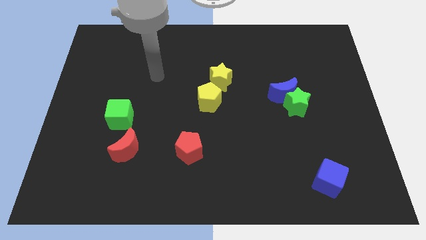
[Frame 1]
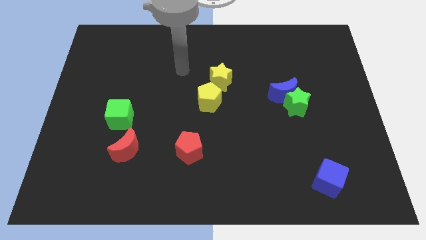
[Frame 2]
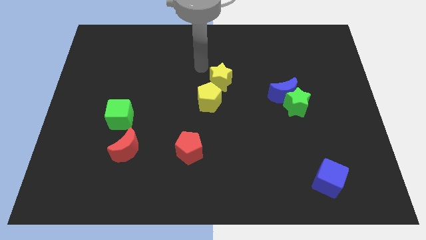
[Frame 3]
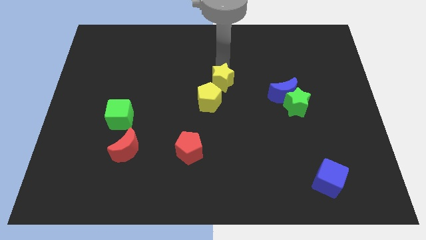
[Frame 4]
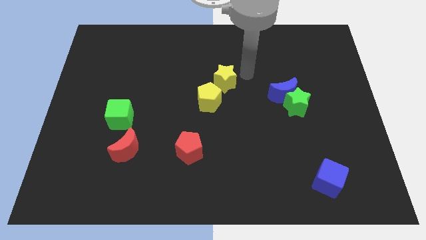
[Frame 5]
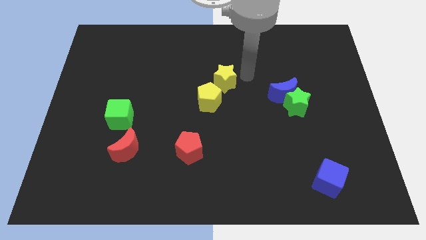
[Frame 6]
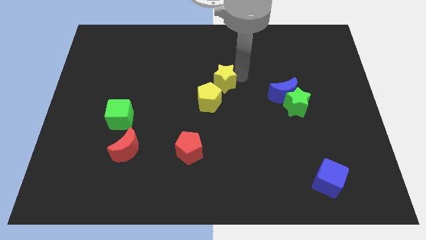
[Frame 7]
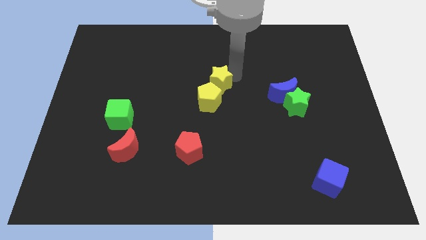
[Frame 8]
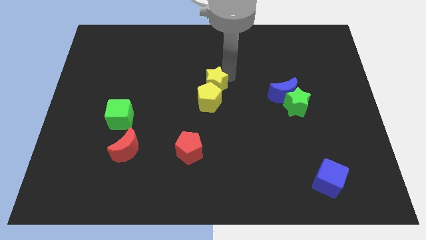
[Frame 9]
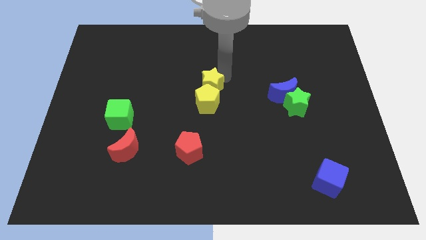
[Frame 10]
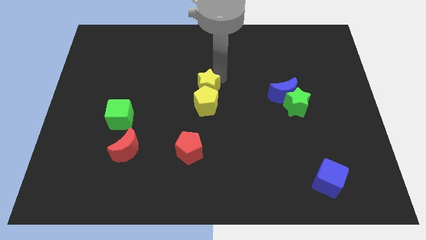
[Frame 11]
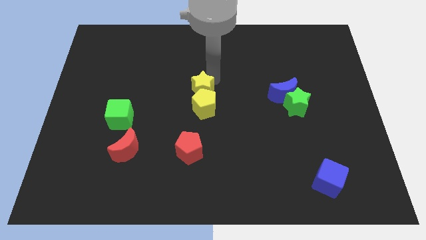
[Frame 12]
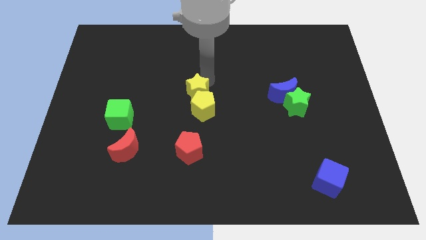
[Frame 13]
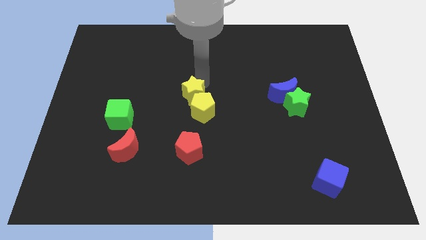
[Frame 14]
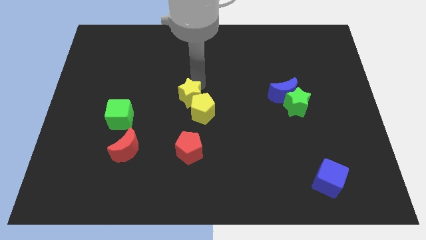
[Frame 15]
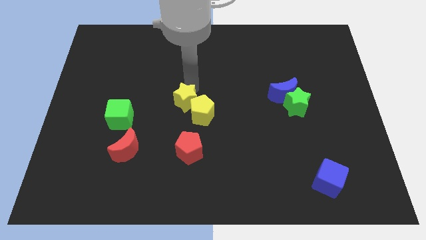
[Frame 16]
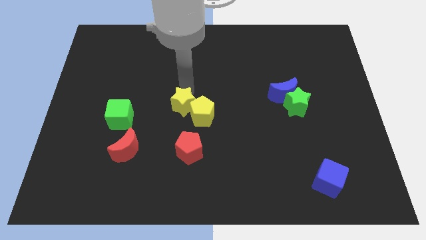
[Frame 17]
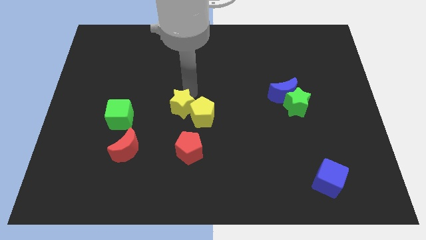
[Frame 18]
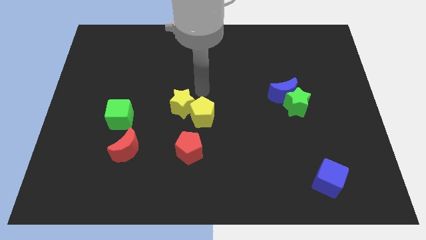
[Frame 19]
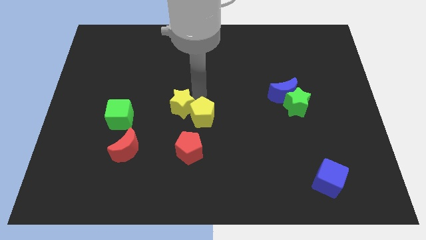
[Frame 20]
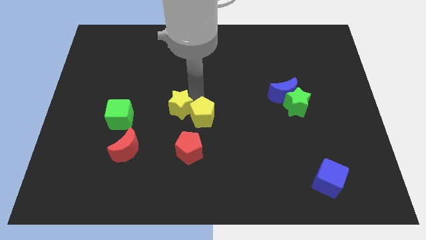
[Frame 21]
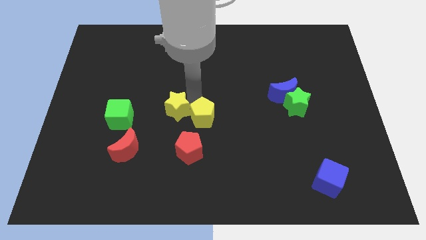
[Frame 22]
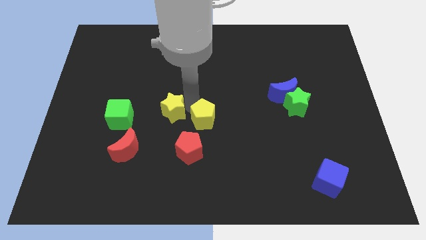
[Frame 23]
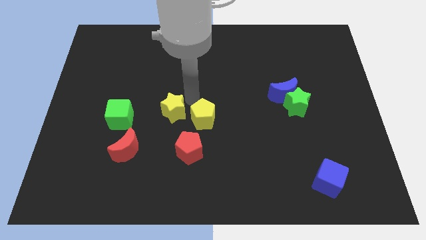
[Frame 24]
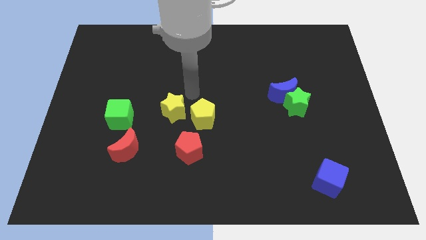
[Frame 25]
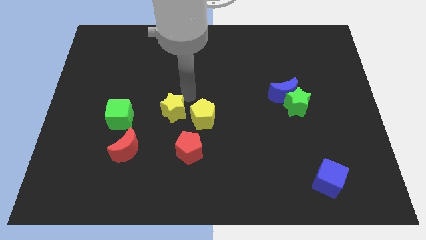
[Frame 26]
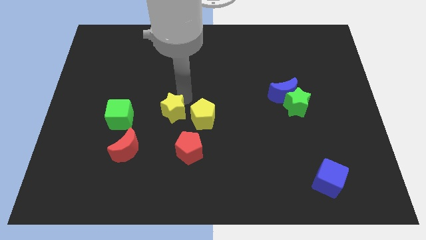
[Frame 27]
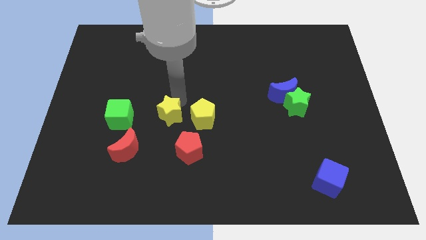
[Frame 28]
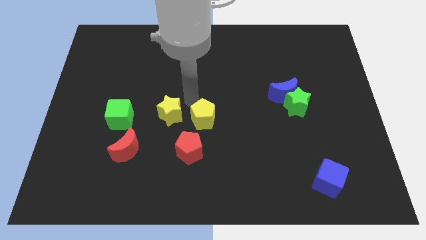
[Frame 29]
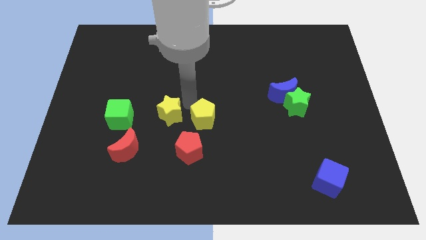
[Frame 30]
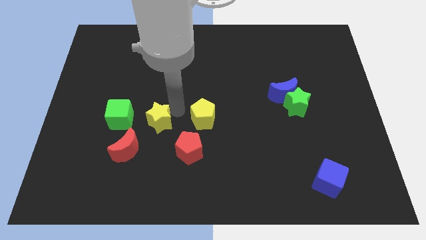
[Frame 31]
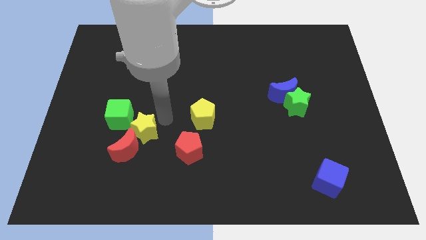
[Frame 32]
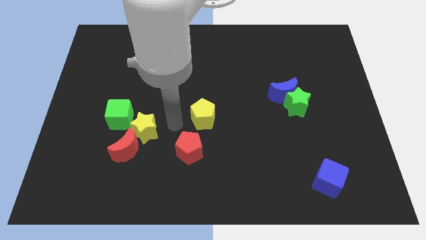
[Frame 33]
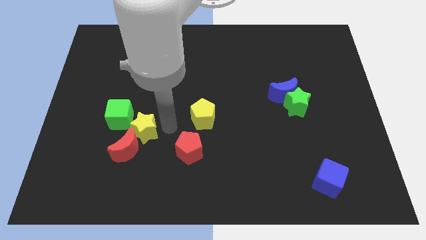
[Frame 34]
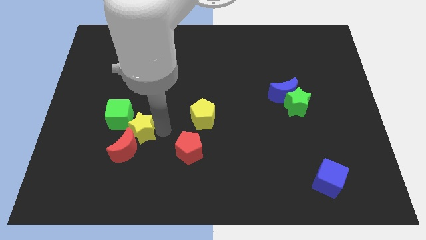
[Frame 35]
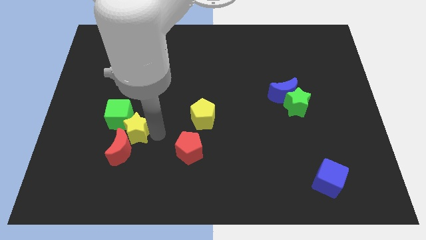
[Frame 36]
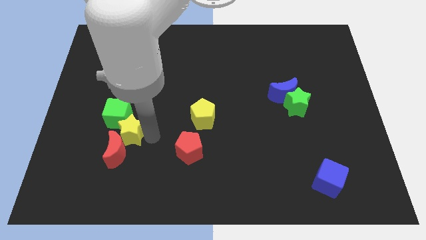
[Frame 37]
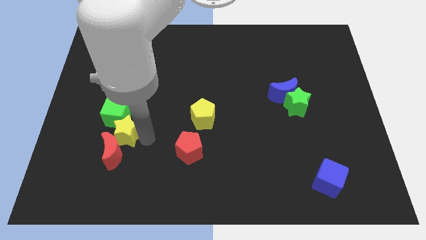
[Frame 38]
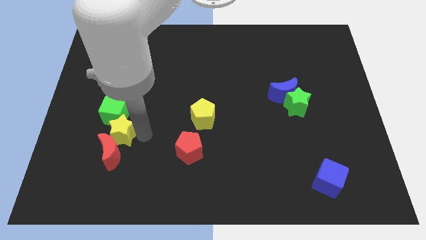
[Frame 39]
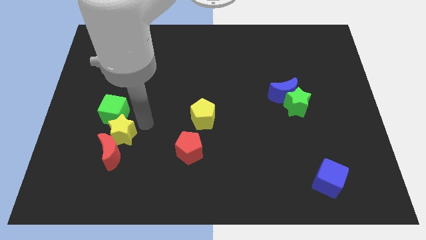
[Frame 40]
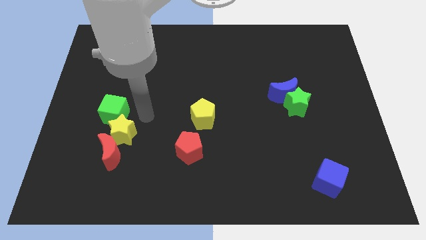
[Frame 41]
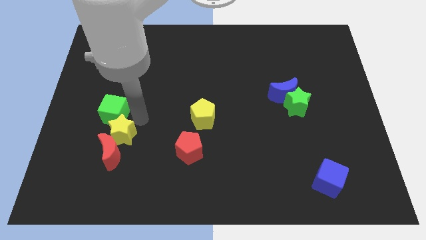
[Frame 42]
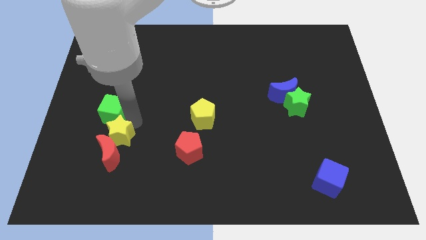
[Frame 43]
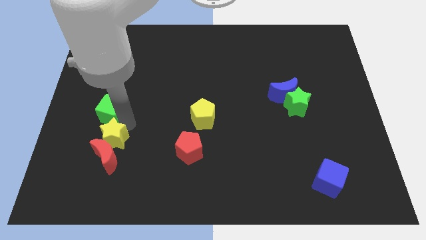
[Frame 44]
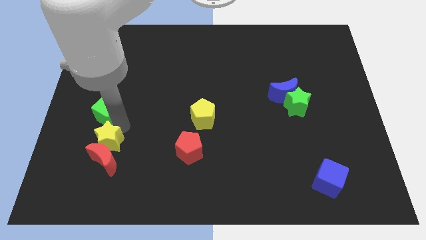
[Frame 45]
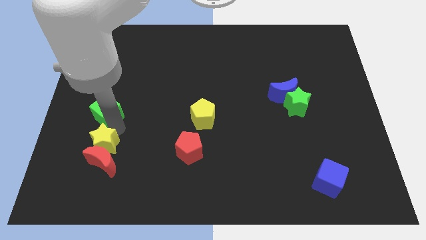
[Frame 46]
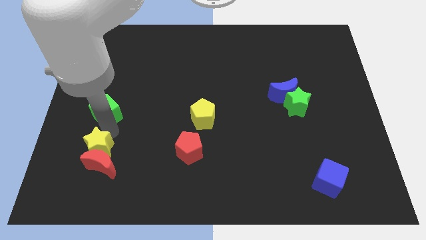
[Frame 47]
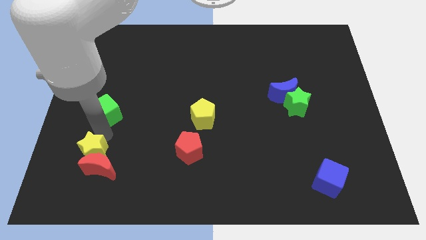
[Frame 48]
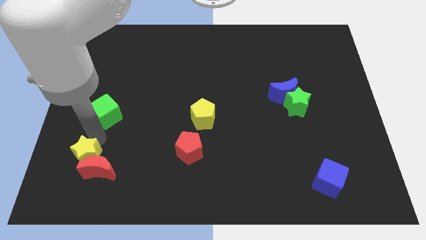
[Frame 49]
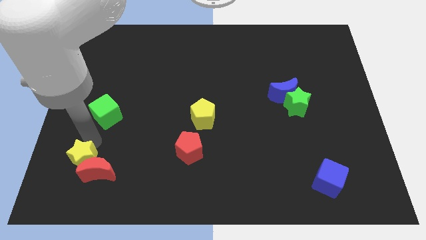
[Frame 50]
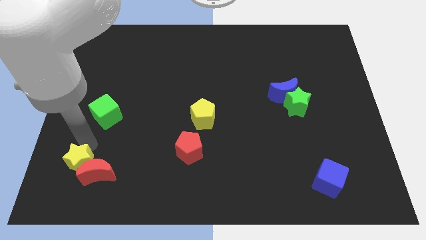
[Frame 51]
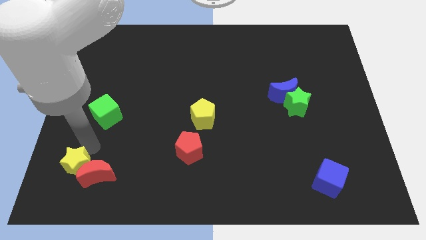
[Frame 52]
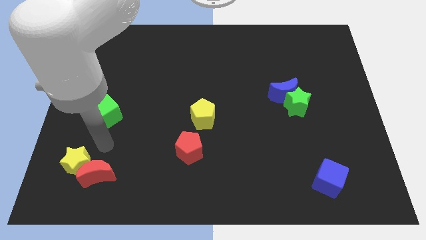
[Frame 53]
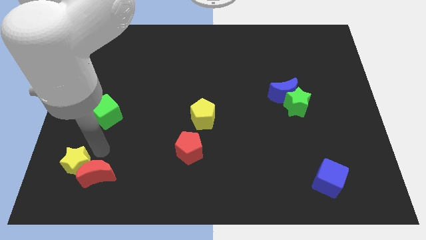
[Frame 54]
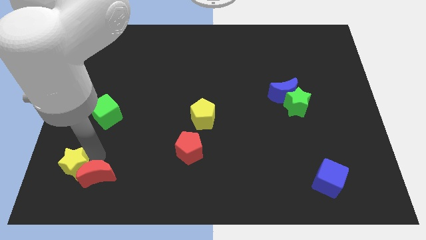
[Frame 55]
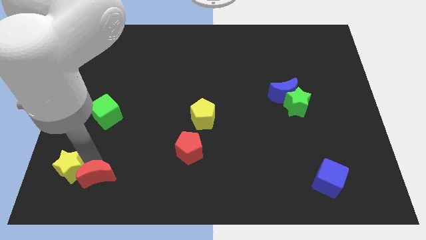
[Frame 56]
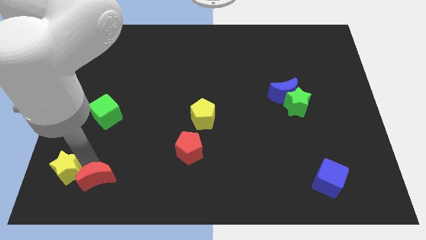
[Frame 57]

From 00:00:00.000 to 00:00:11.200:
move the yellow star to the bottom left of the board
